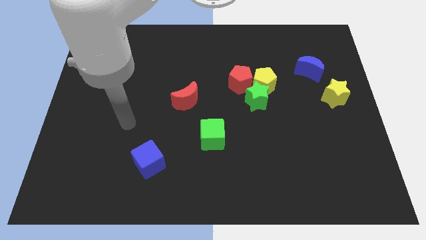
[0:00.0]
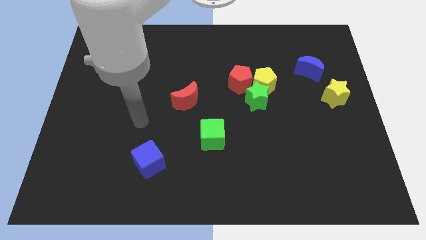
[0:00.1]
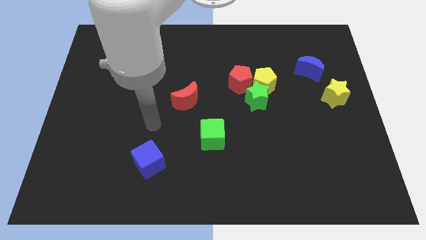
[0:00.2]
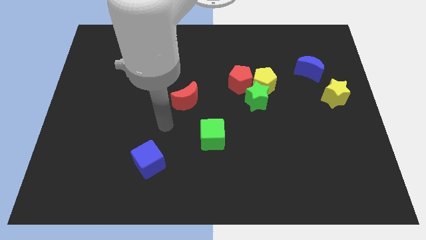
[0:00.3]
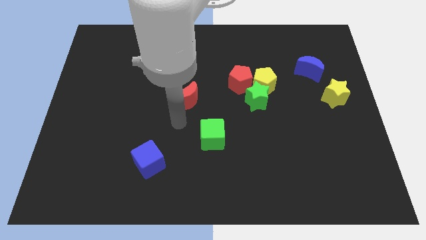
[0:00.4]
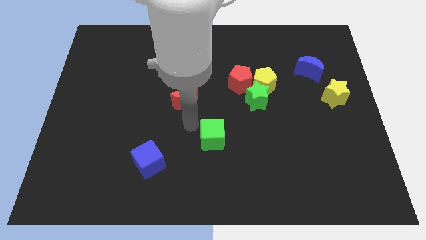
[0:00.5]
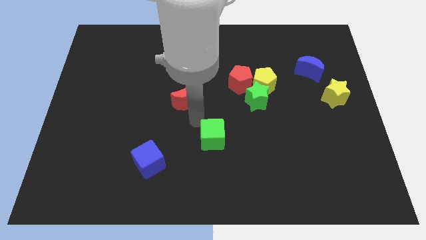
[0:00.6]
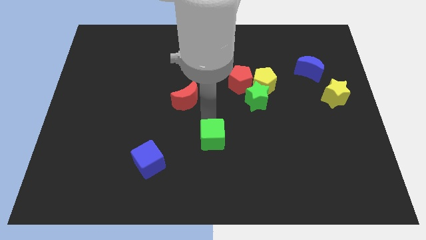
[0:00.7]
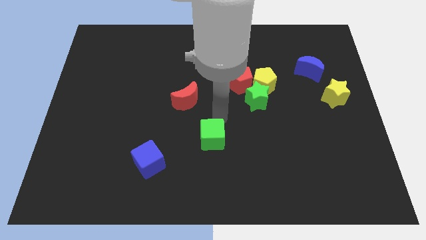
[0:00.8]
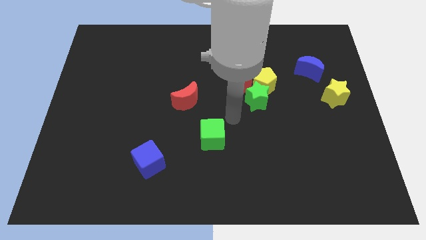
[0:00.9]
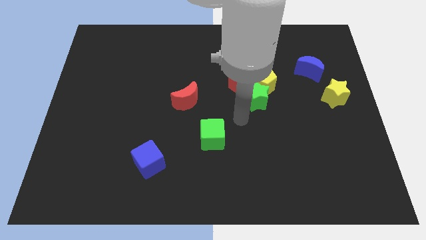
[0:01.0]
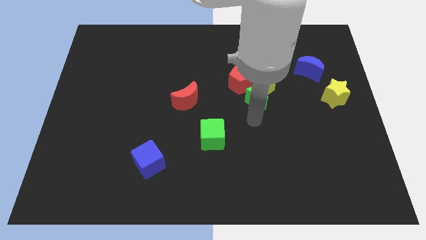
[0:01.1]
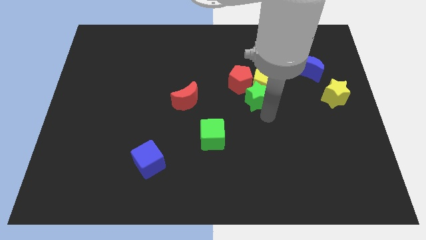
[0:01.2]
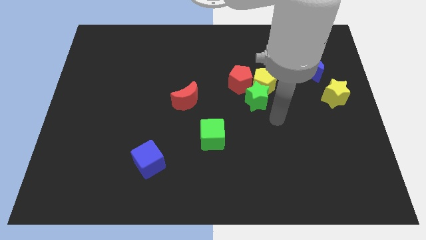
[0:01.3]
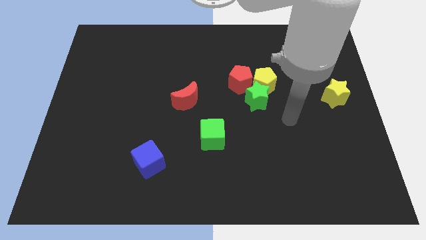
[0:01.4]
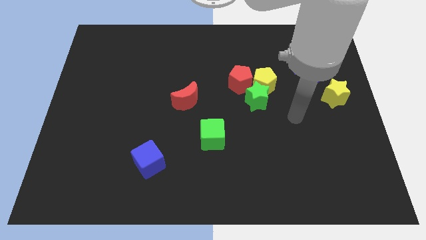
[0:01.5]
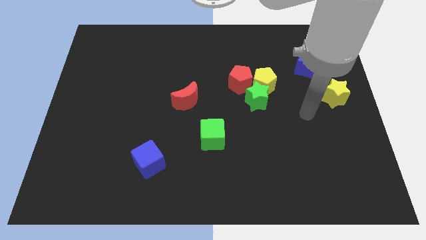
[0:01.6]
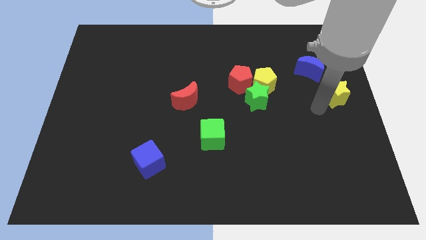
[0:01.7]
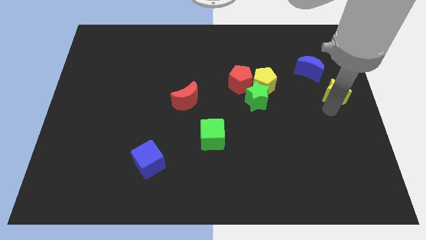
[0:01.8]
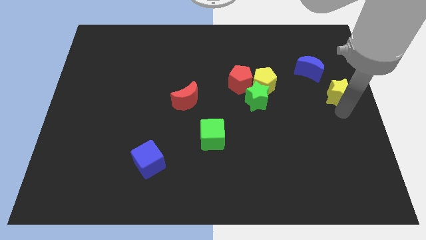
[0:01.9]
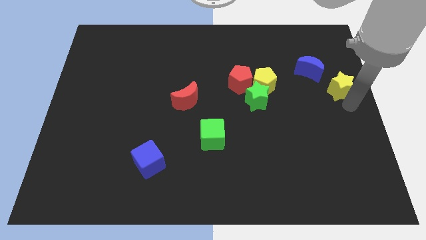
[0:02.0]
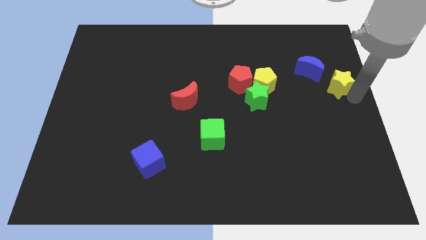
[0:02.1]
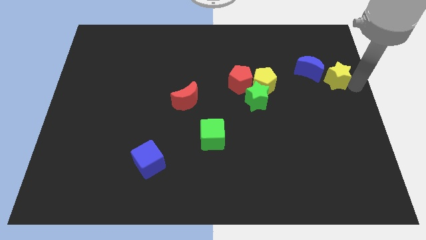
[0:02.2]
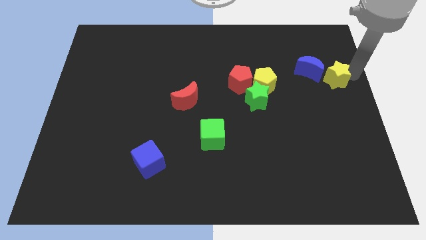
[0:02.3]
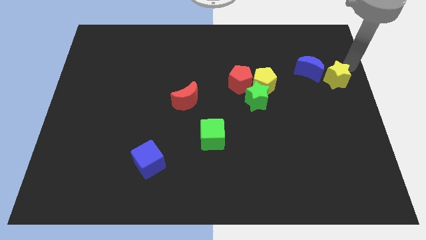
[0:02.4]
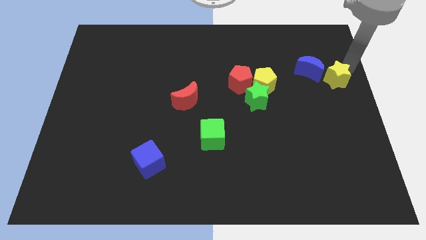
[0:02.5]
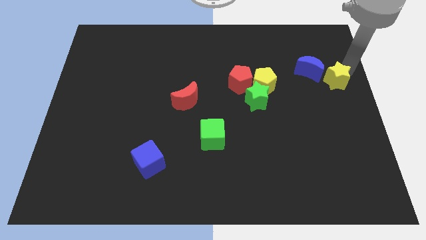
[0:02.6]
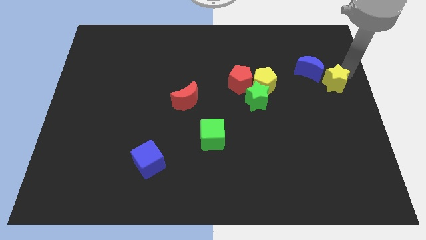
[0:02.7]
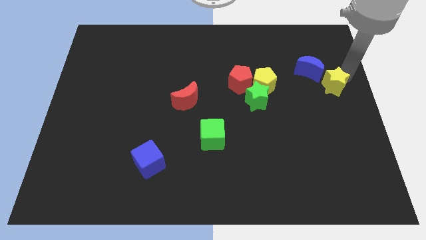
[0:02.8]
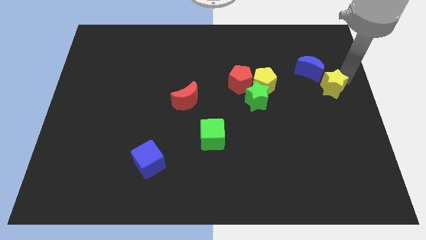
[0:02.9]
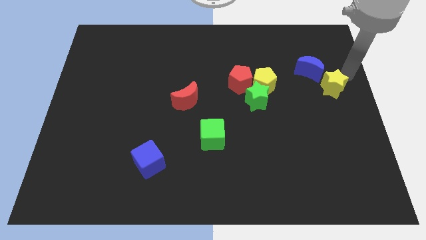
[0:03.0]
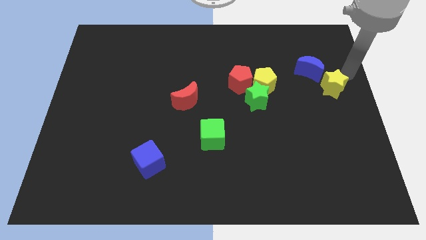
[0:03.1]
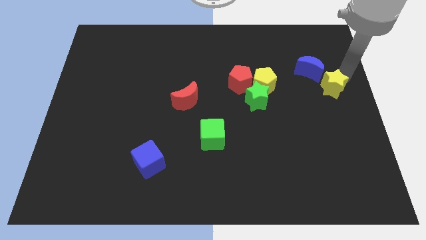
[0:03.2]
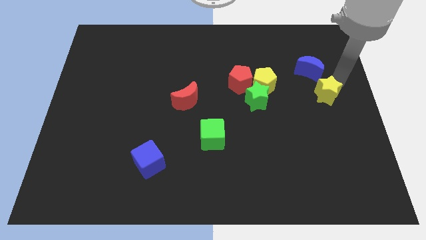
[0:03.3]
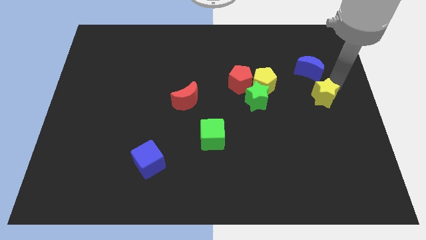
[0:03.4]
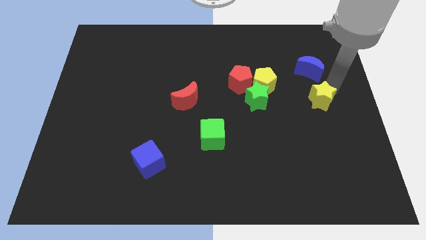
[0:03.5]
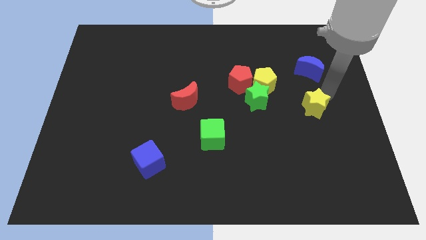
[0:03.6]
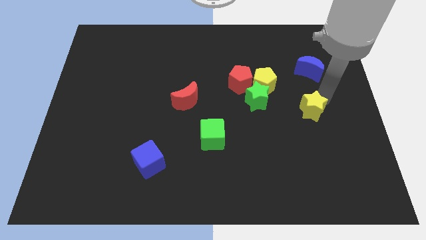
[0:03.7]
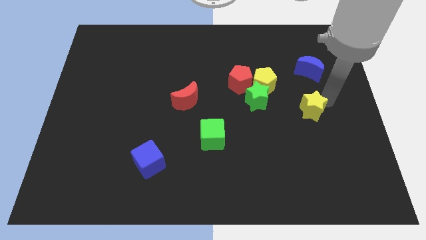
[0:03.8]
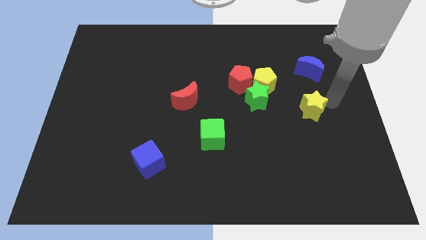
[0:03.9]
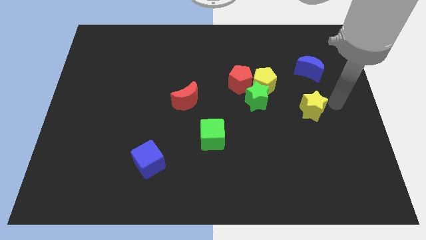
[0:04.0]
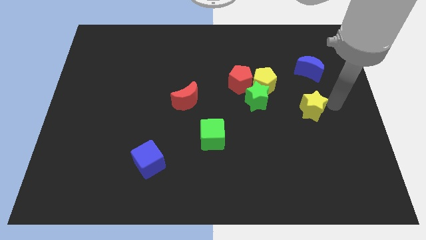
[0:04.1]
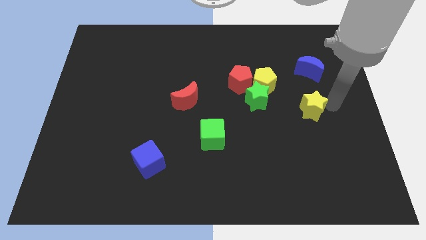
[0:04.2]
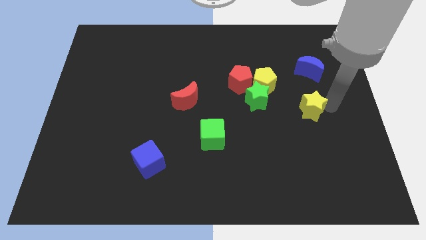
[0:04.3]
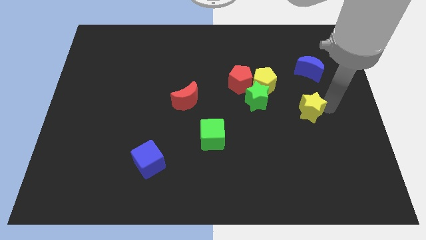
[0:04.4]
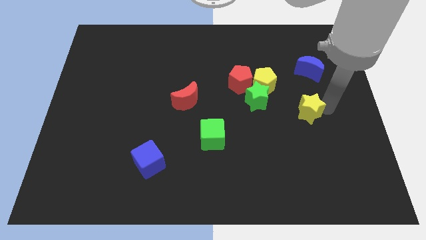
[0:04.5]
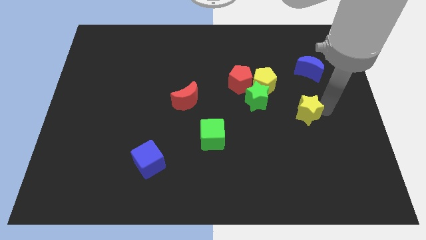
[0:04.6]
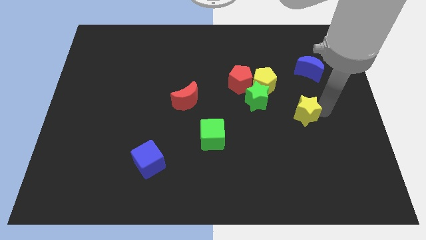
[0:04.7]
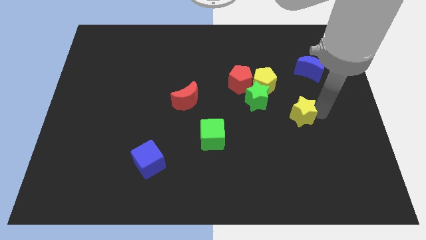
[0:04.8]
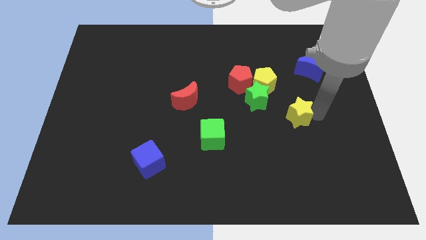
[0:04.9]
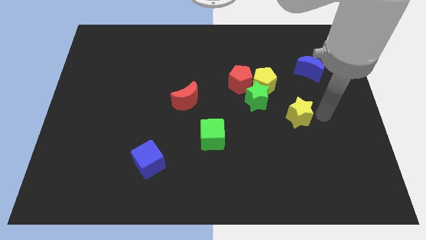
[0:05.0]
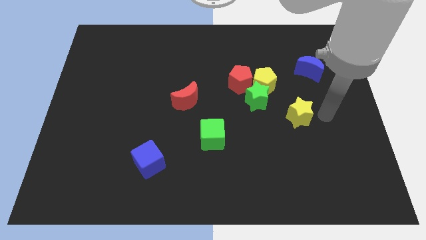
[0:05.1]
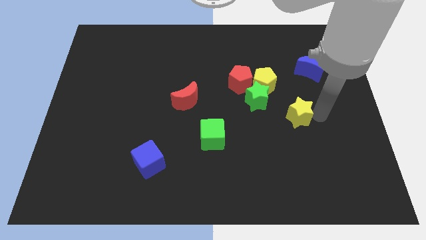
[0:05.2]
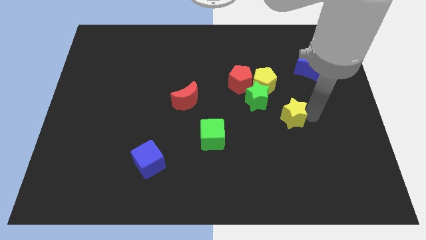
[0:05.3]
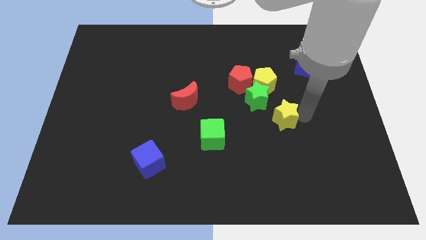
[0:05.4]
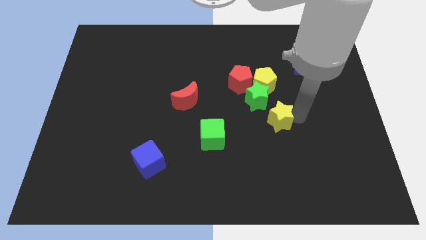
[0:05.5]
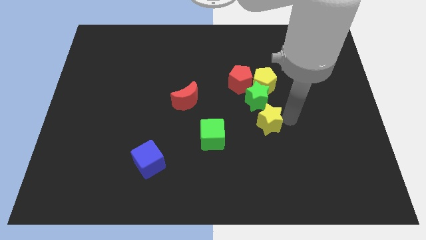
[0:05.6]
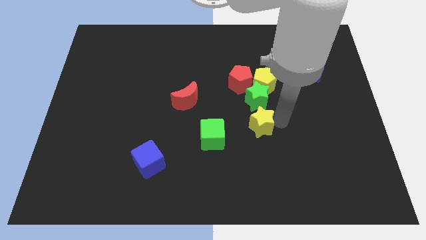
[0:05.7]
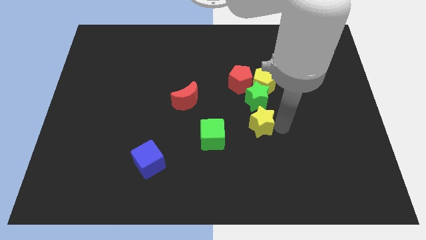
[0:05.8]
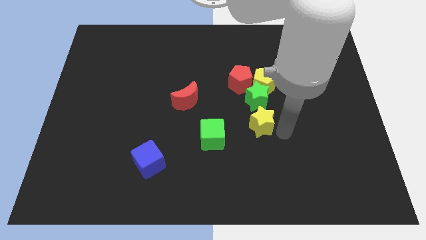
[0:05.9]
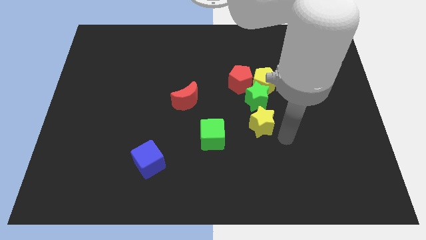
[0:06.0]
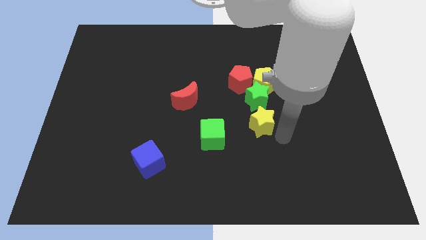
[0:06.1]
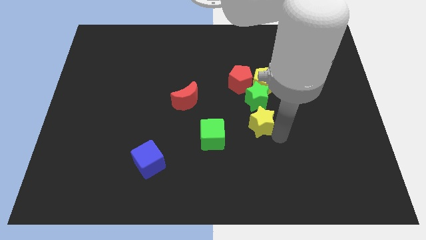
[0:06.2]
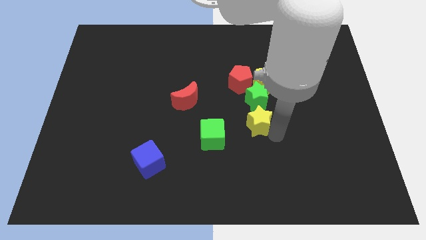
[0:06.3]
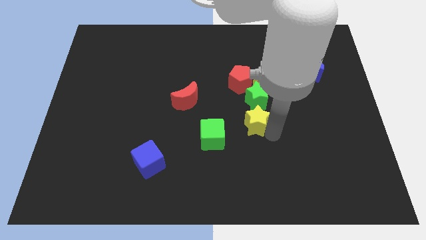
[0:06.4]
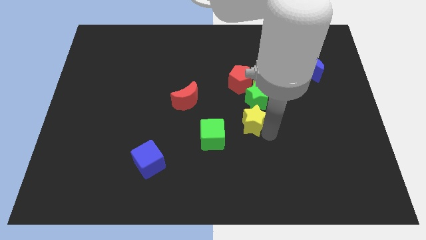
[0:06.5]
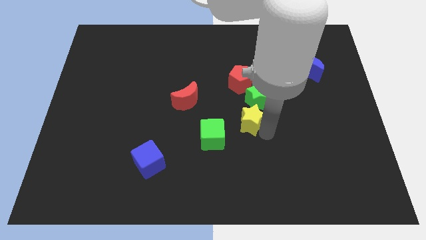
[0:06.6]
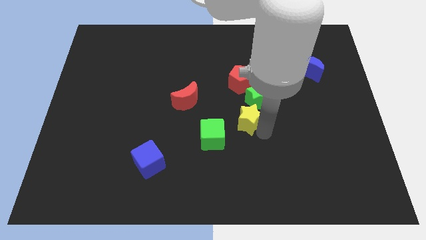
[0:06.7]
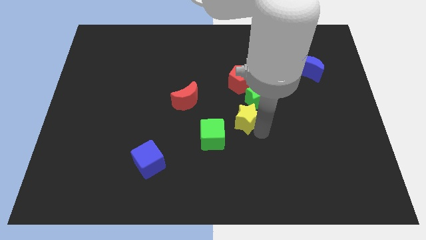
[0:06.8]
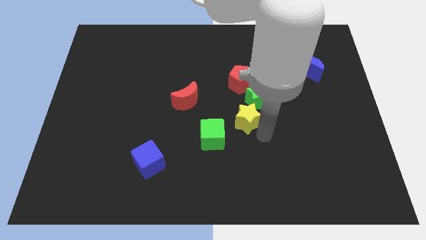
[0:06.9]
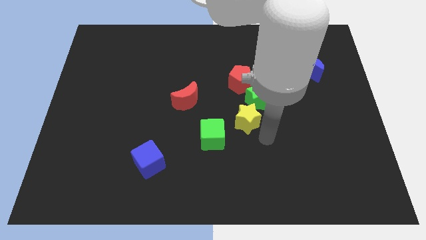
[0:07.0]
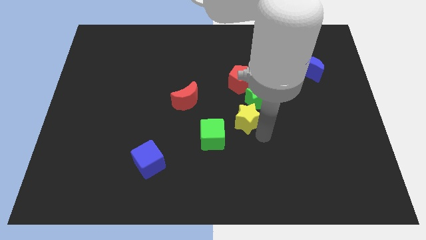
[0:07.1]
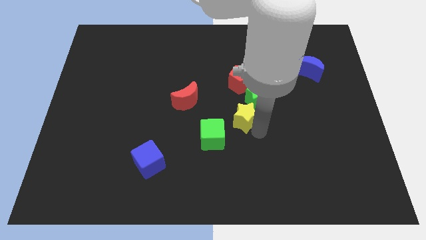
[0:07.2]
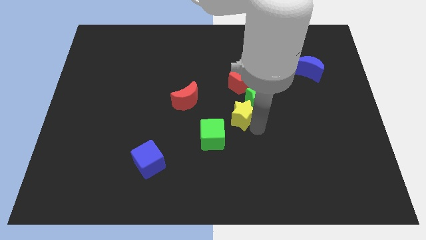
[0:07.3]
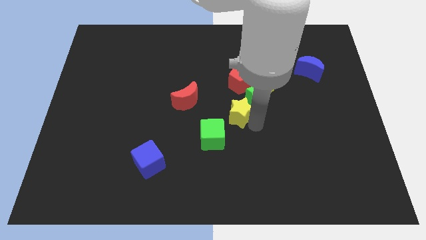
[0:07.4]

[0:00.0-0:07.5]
push the yellow star to the left of the green star
